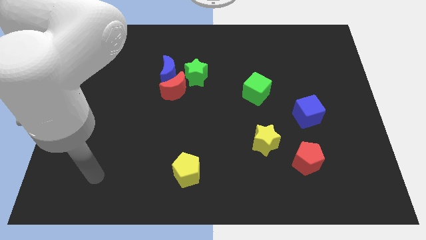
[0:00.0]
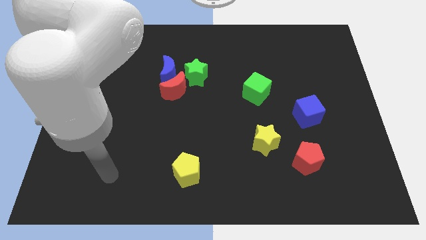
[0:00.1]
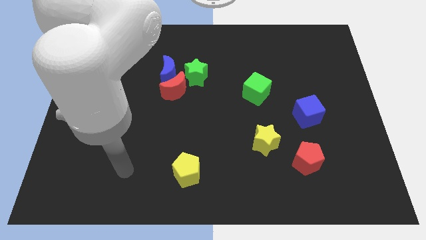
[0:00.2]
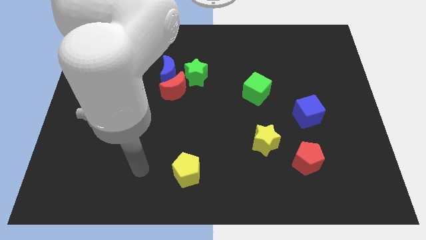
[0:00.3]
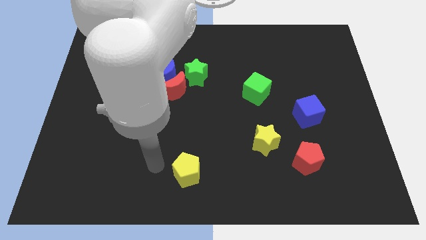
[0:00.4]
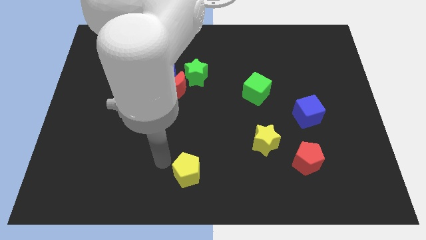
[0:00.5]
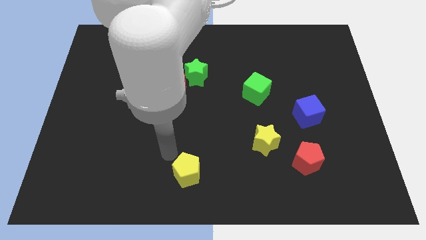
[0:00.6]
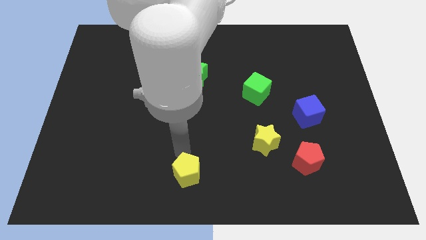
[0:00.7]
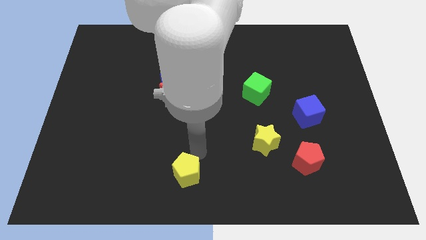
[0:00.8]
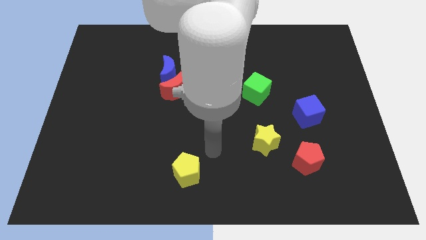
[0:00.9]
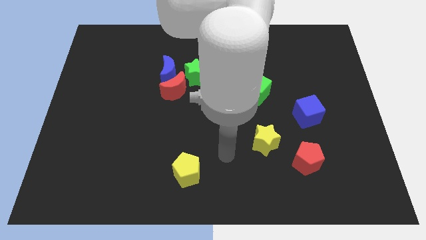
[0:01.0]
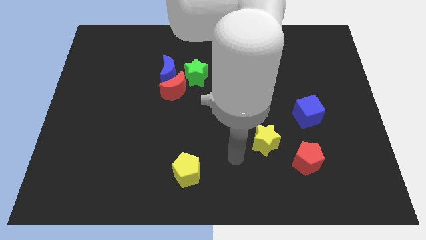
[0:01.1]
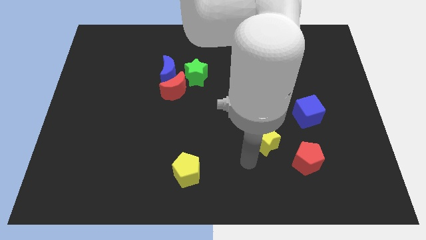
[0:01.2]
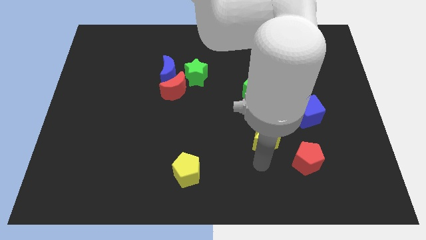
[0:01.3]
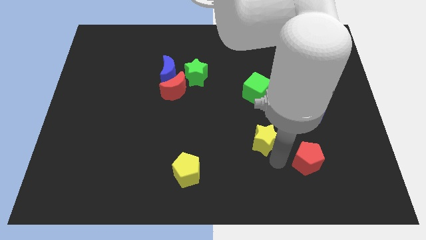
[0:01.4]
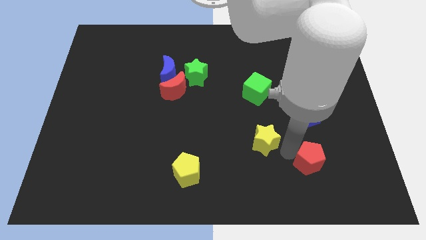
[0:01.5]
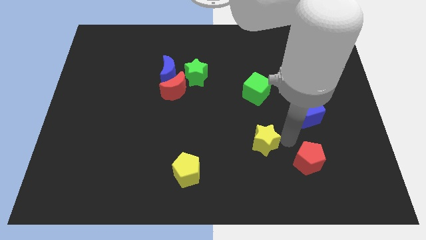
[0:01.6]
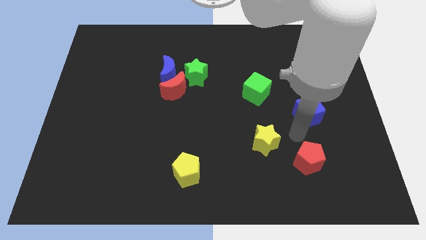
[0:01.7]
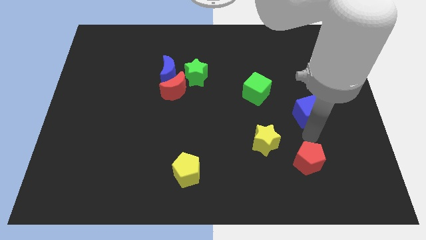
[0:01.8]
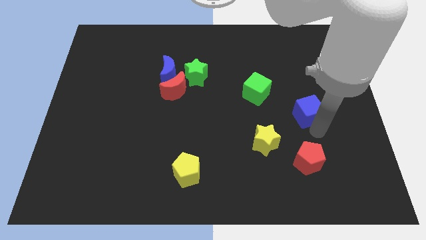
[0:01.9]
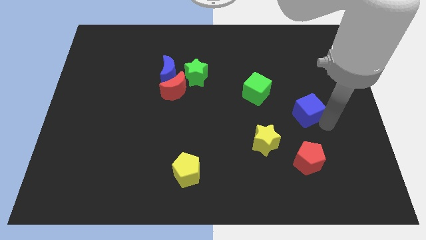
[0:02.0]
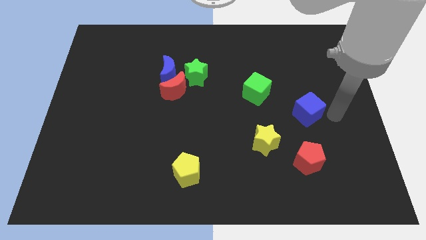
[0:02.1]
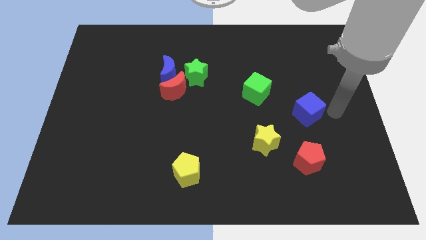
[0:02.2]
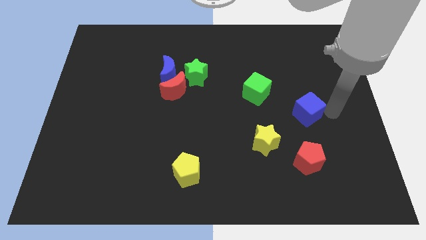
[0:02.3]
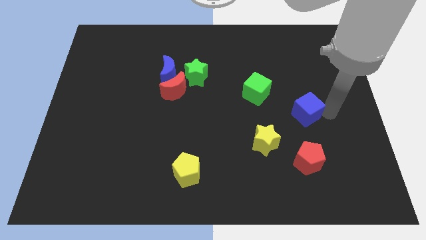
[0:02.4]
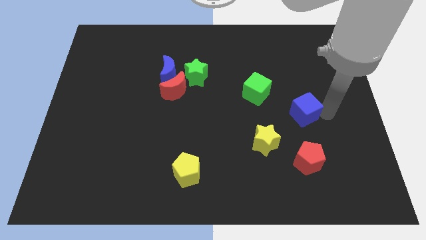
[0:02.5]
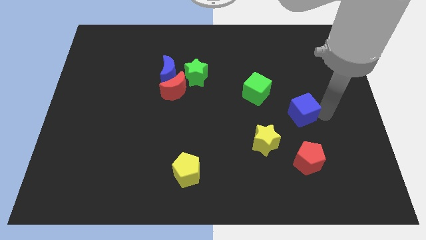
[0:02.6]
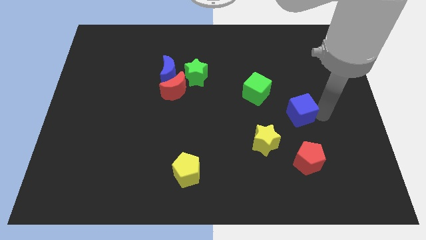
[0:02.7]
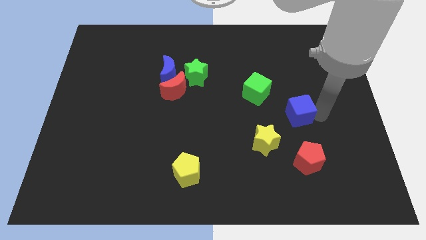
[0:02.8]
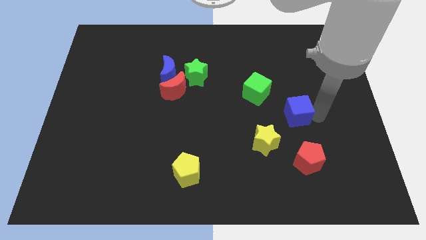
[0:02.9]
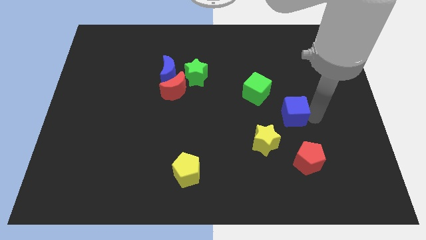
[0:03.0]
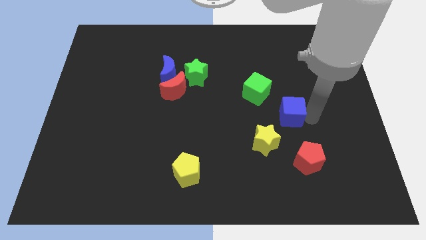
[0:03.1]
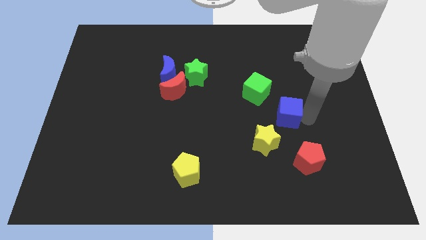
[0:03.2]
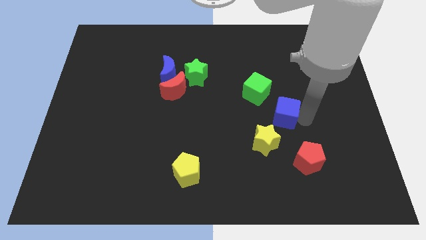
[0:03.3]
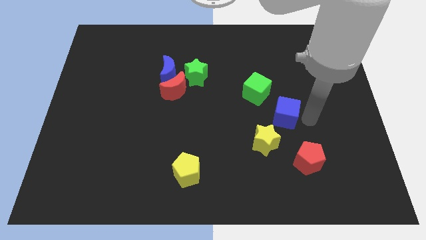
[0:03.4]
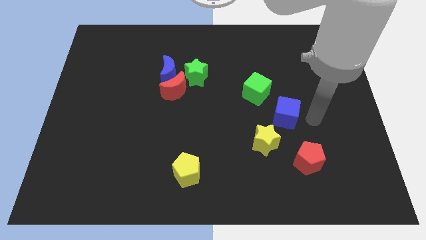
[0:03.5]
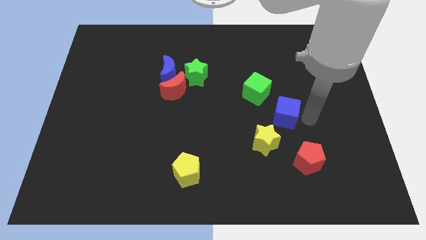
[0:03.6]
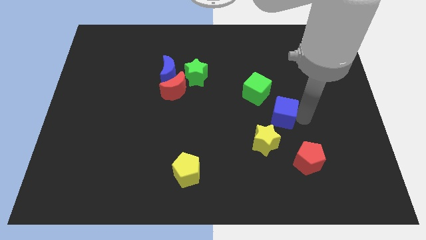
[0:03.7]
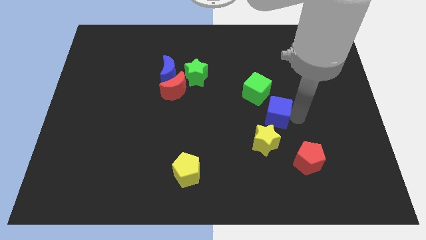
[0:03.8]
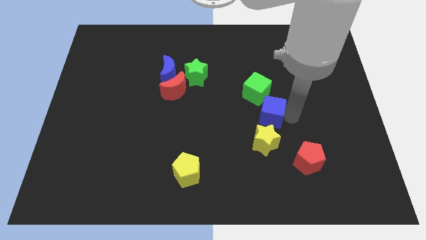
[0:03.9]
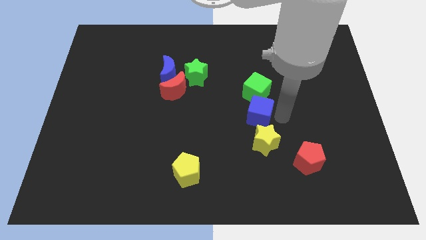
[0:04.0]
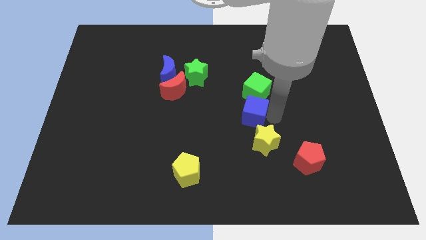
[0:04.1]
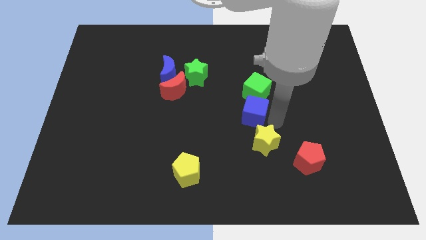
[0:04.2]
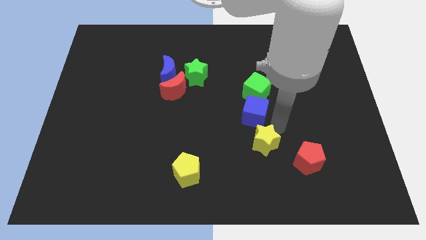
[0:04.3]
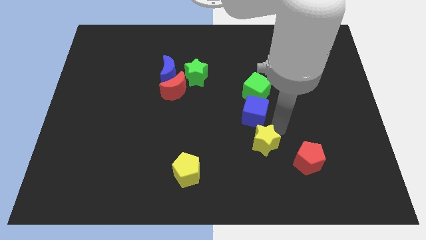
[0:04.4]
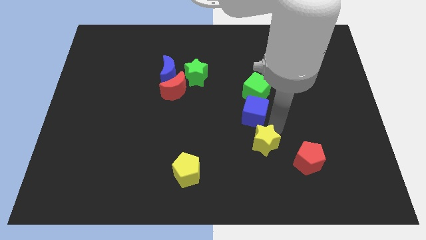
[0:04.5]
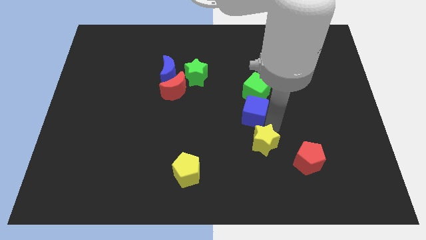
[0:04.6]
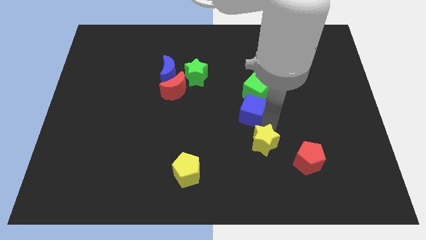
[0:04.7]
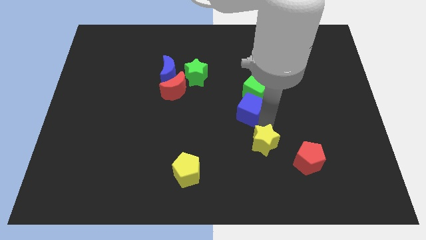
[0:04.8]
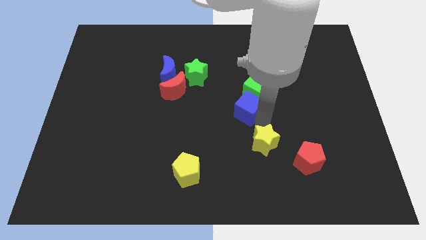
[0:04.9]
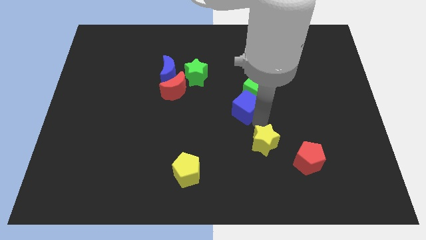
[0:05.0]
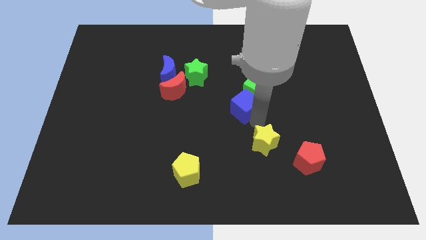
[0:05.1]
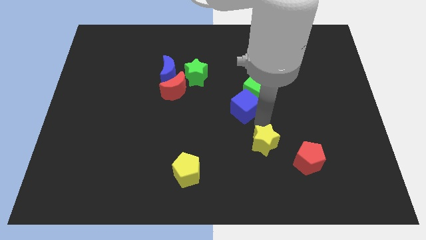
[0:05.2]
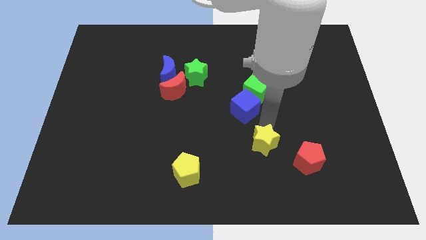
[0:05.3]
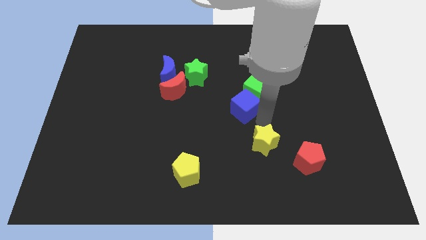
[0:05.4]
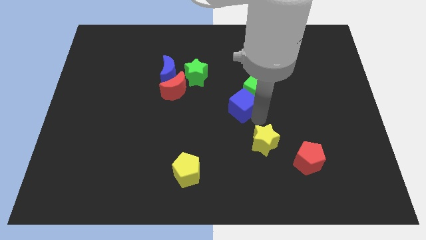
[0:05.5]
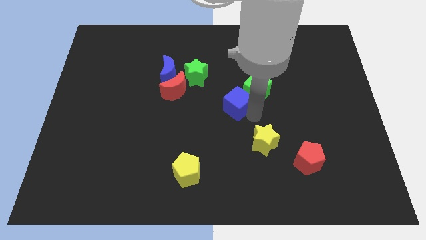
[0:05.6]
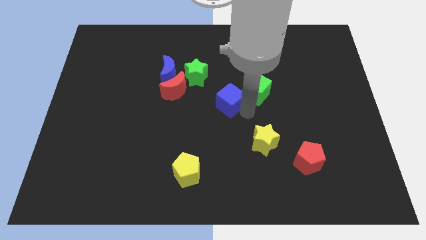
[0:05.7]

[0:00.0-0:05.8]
put the blue cube to the bottom right of the green star

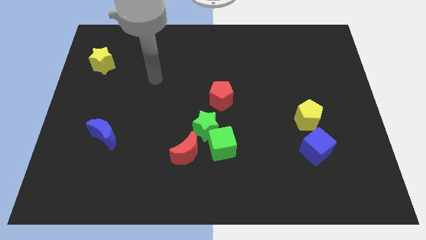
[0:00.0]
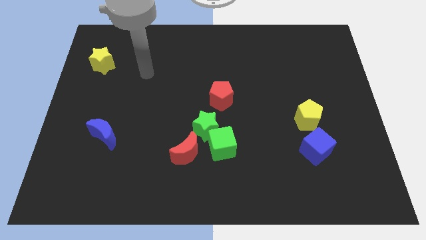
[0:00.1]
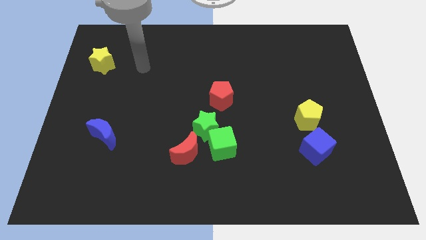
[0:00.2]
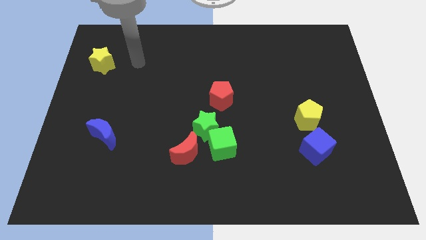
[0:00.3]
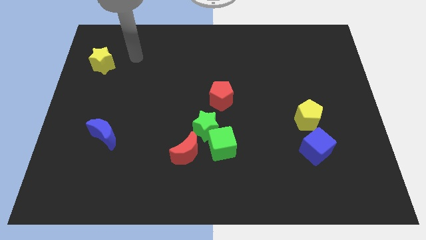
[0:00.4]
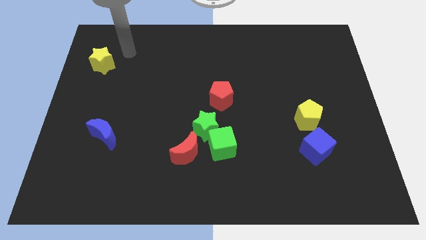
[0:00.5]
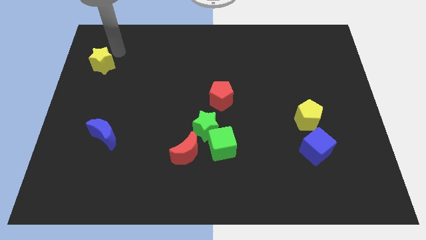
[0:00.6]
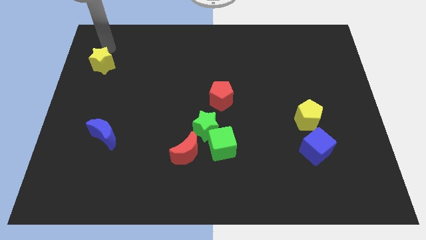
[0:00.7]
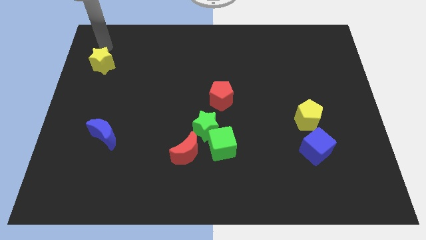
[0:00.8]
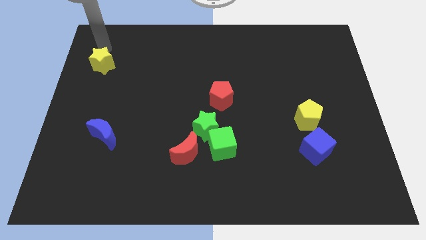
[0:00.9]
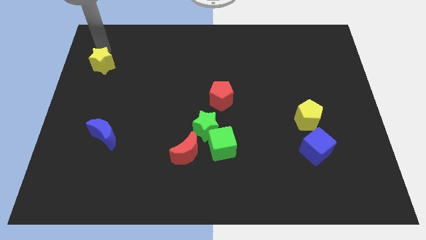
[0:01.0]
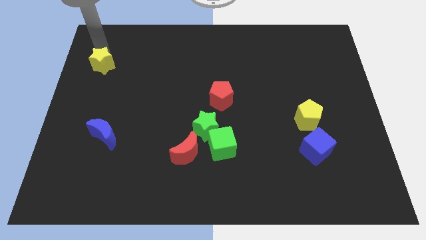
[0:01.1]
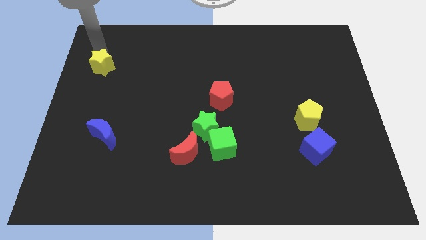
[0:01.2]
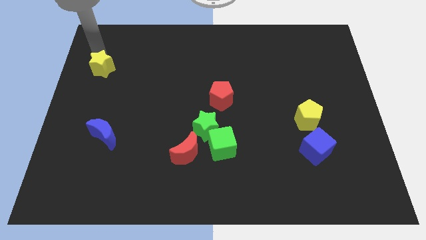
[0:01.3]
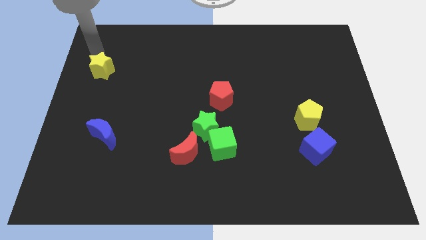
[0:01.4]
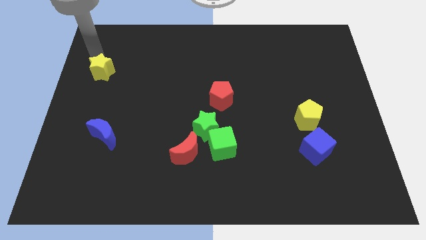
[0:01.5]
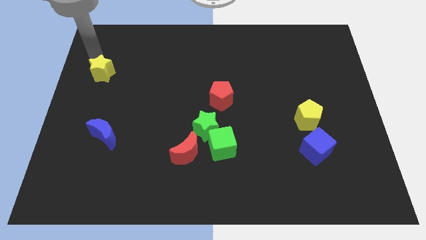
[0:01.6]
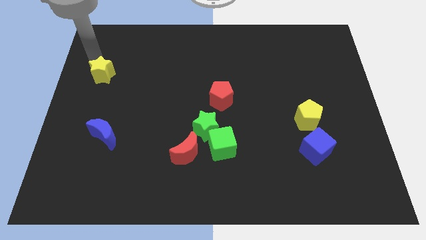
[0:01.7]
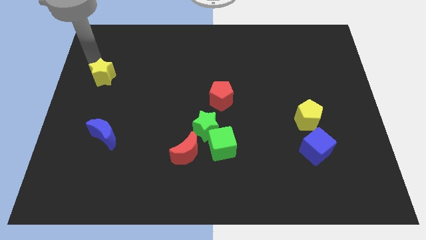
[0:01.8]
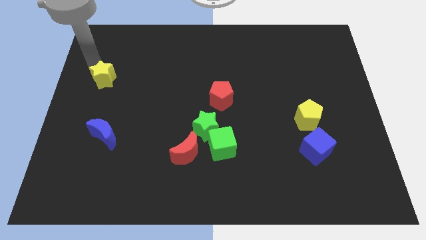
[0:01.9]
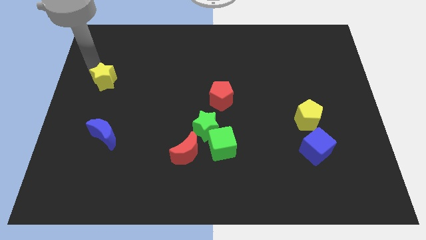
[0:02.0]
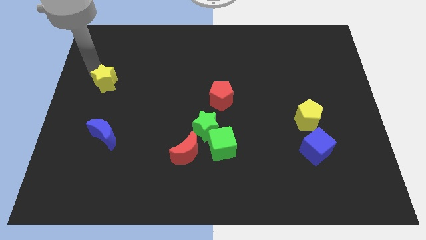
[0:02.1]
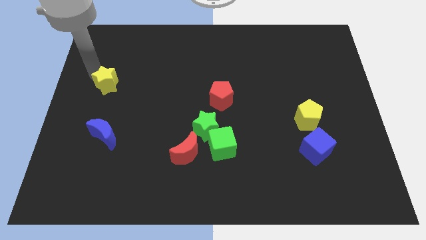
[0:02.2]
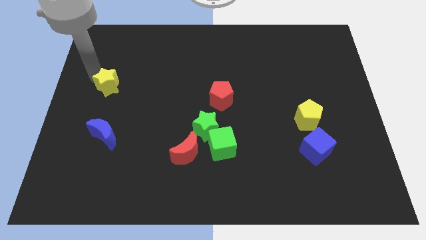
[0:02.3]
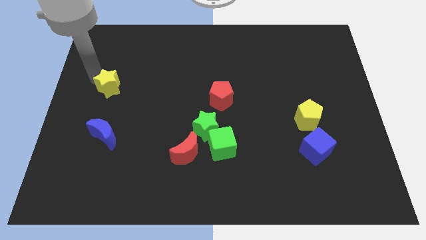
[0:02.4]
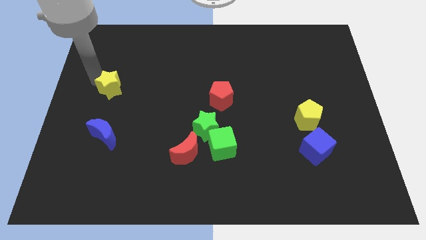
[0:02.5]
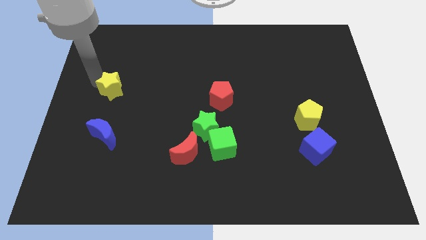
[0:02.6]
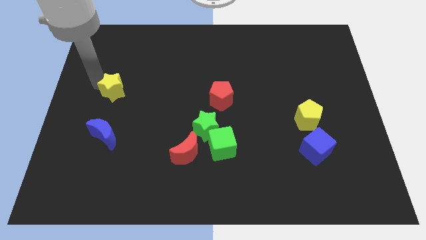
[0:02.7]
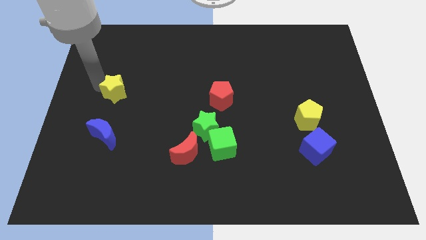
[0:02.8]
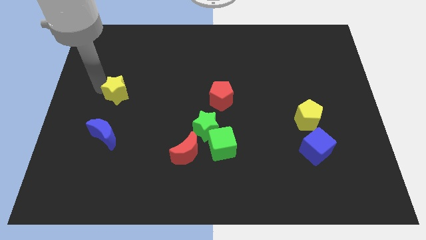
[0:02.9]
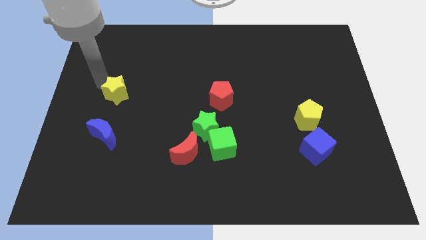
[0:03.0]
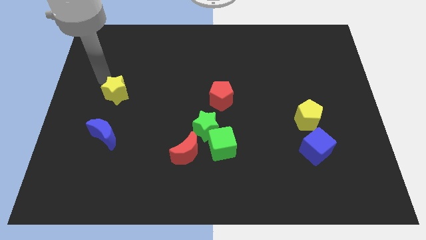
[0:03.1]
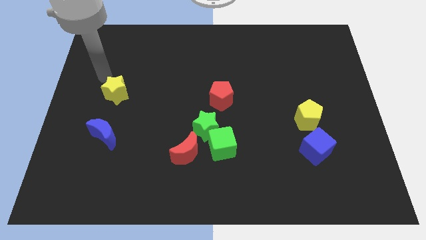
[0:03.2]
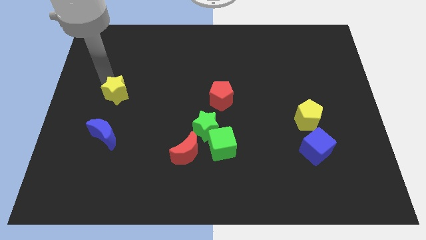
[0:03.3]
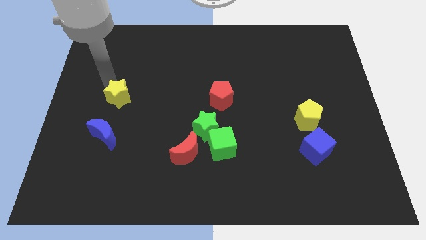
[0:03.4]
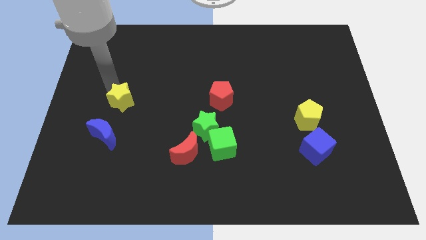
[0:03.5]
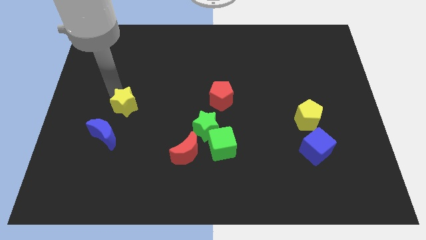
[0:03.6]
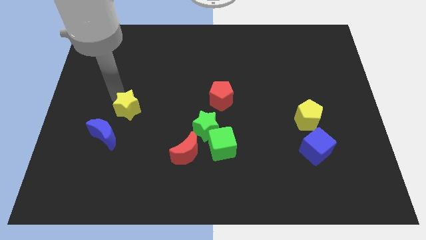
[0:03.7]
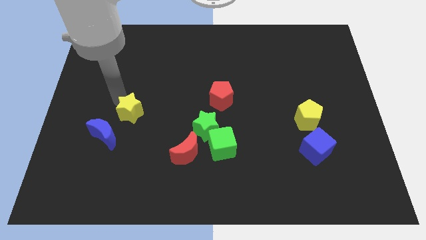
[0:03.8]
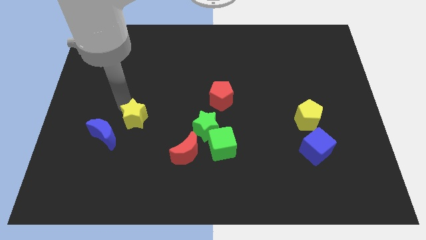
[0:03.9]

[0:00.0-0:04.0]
move the yellow star just right of the blue moon
